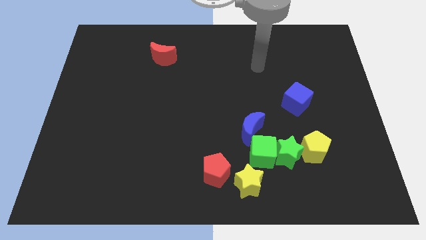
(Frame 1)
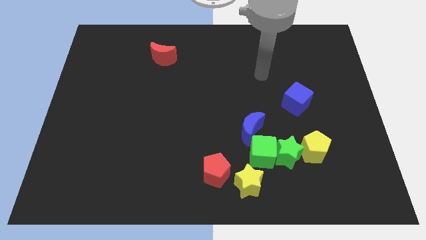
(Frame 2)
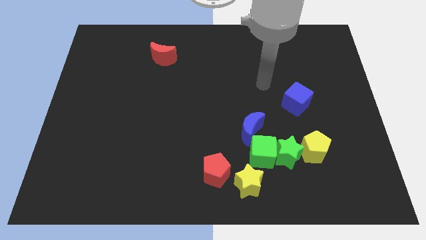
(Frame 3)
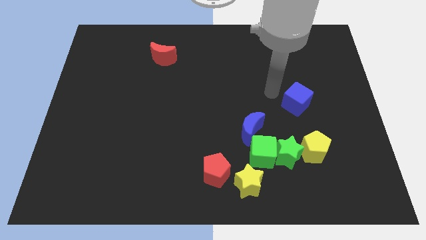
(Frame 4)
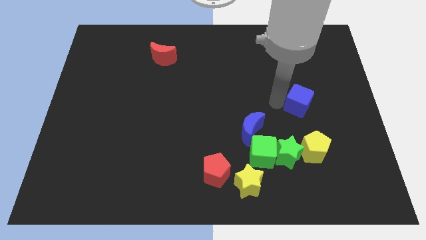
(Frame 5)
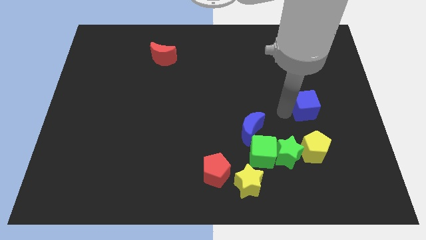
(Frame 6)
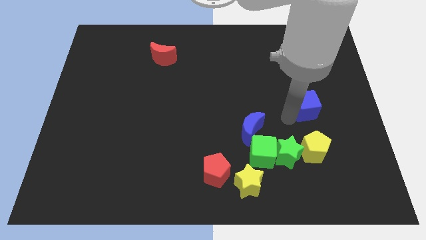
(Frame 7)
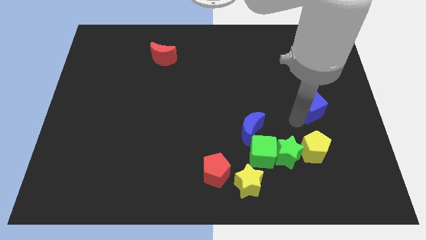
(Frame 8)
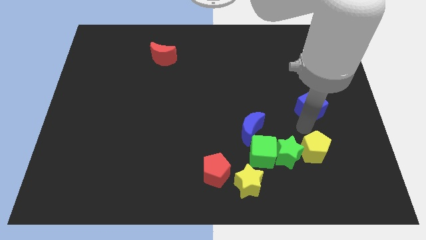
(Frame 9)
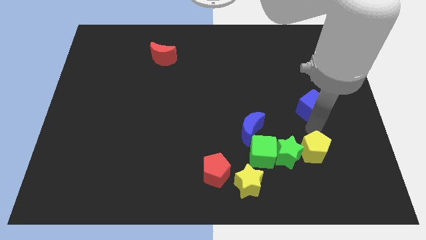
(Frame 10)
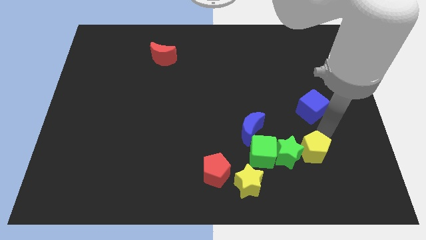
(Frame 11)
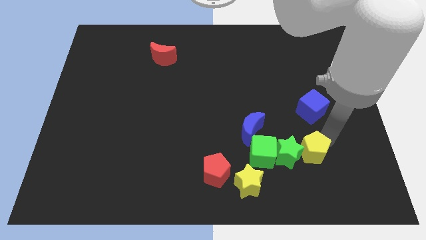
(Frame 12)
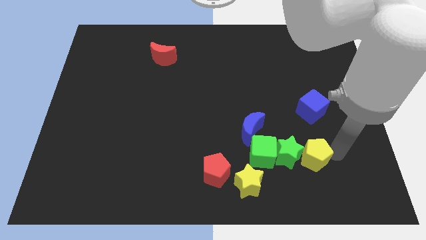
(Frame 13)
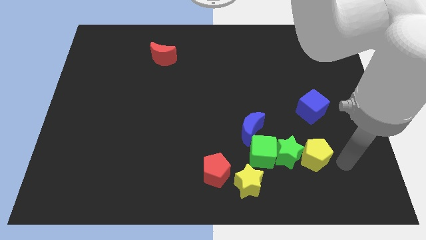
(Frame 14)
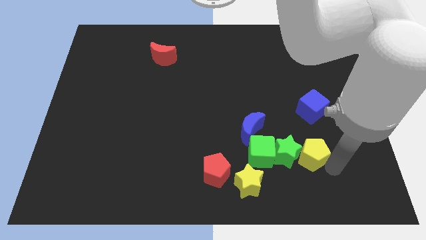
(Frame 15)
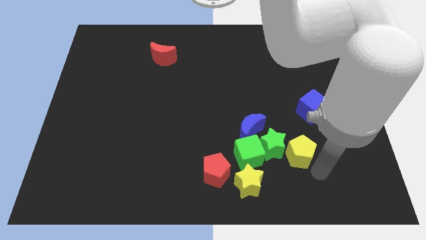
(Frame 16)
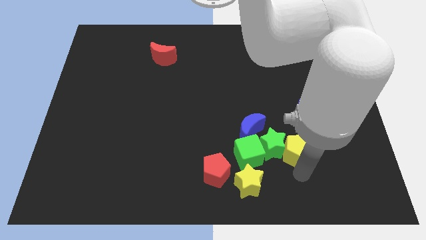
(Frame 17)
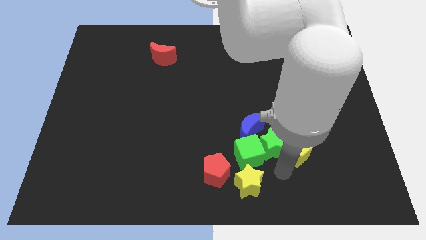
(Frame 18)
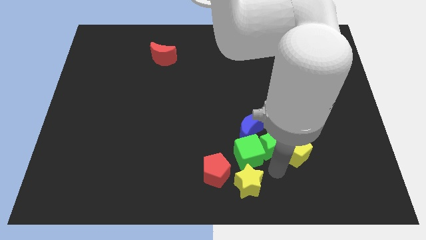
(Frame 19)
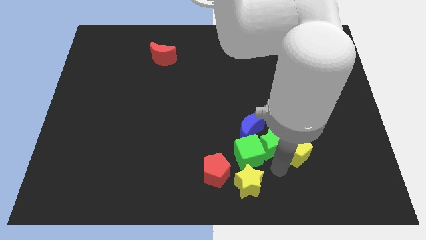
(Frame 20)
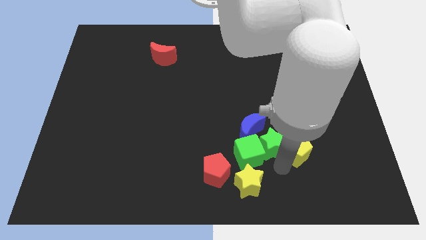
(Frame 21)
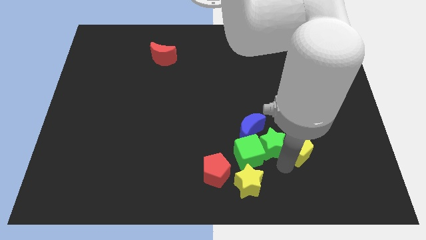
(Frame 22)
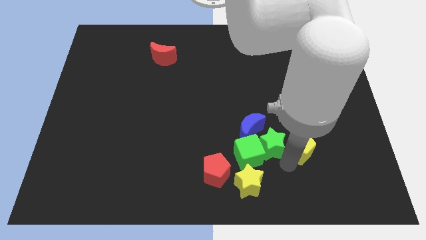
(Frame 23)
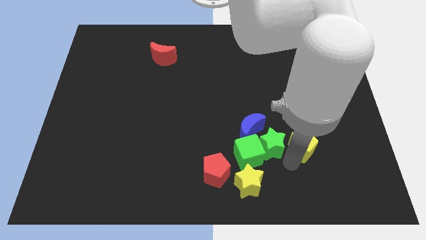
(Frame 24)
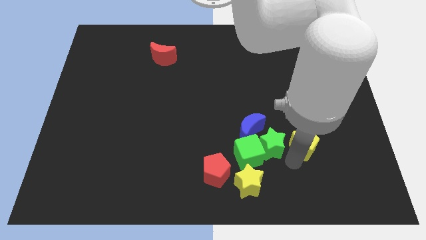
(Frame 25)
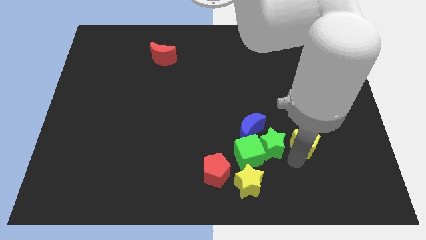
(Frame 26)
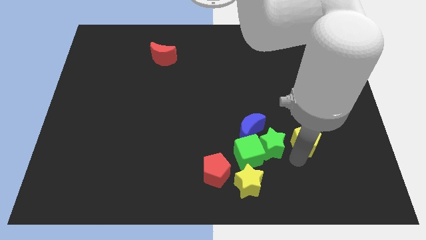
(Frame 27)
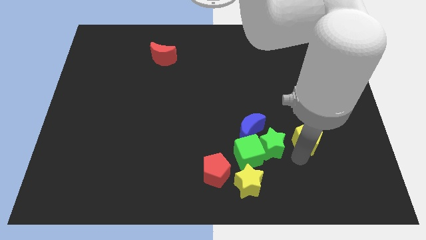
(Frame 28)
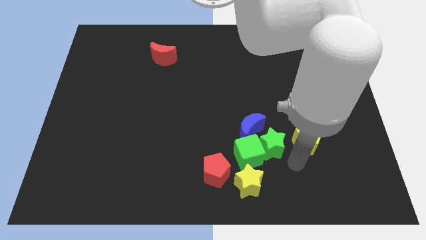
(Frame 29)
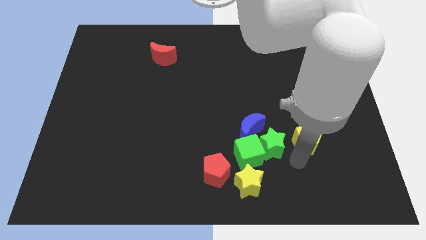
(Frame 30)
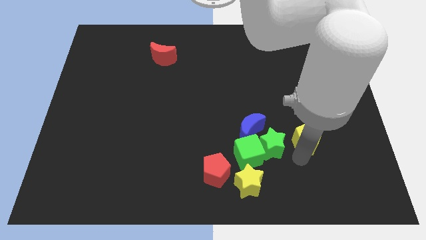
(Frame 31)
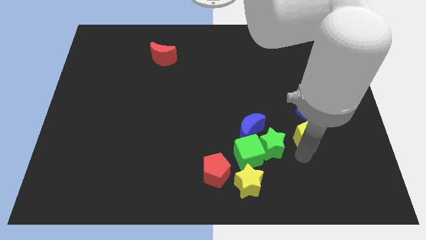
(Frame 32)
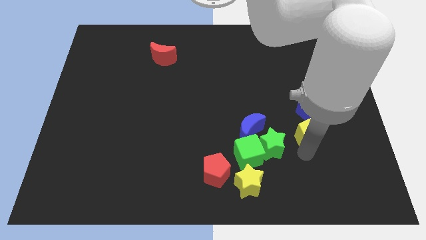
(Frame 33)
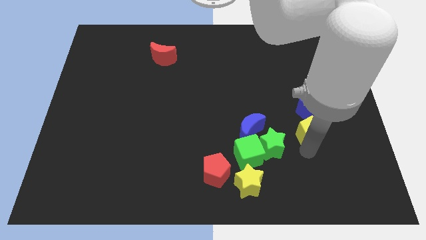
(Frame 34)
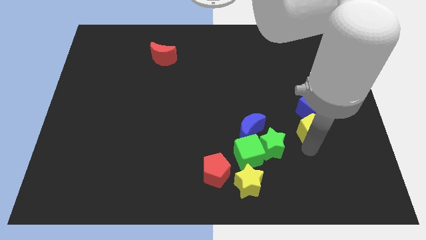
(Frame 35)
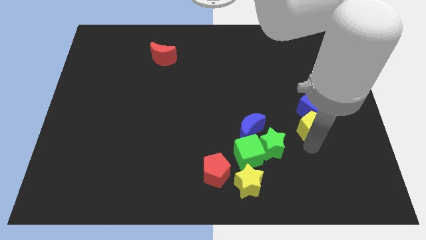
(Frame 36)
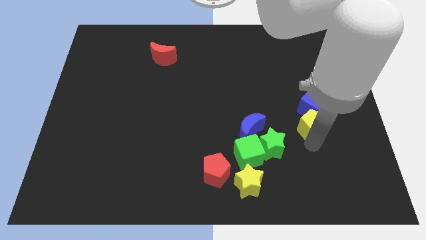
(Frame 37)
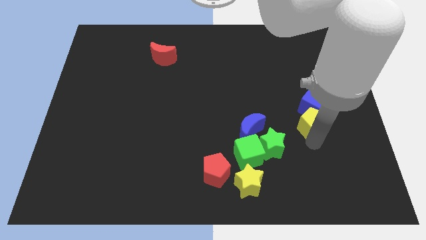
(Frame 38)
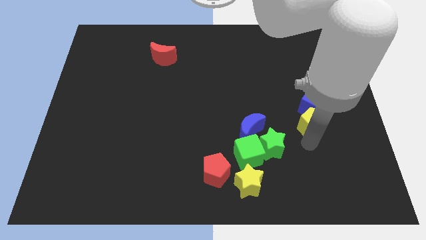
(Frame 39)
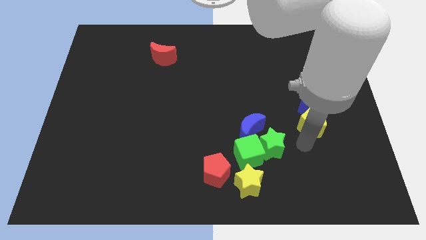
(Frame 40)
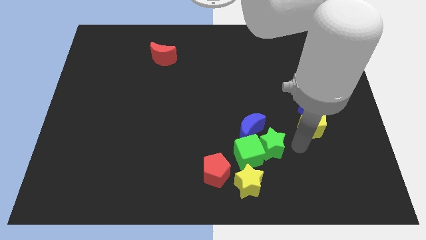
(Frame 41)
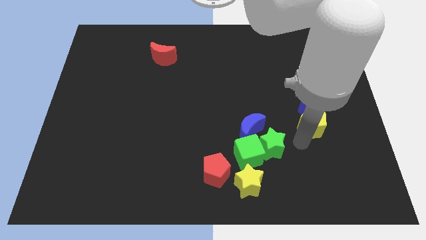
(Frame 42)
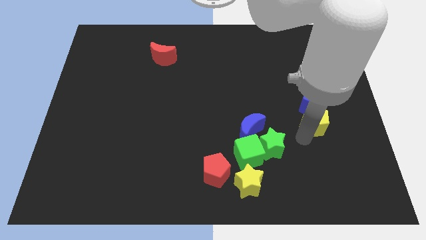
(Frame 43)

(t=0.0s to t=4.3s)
slightly move the yellow pentagon upwards

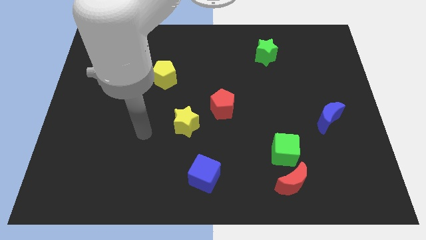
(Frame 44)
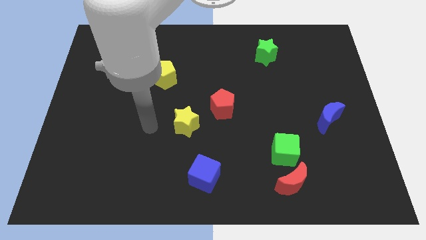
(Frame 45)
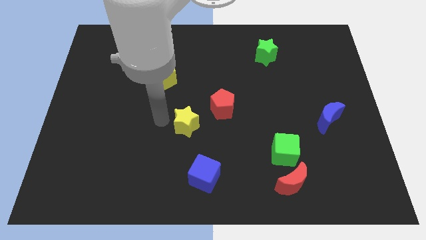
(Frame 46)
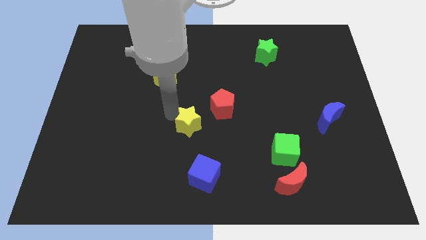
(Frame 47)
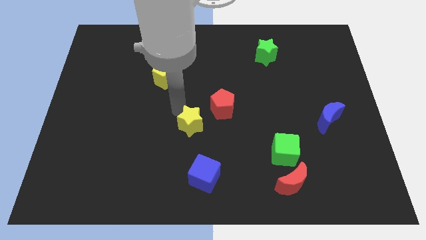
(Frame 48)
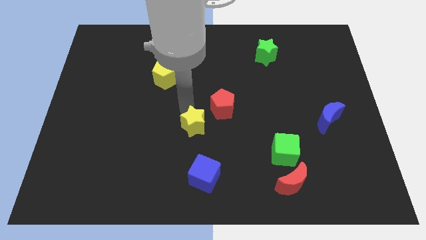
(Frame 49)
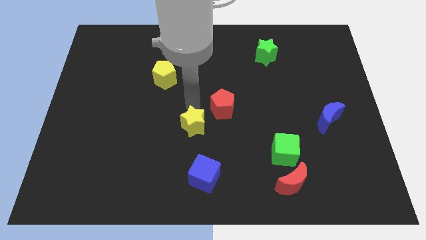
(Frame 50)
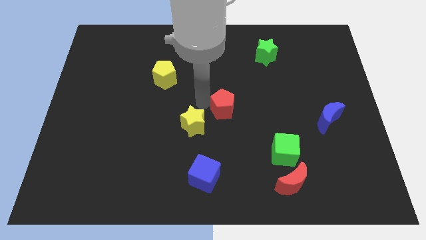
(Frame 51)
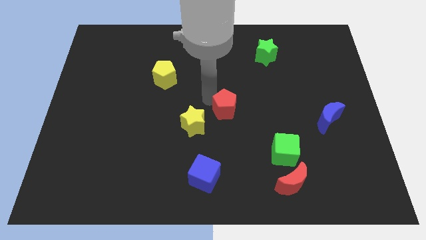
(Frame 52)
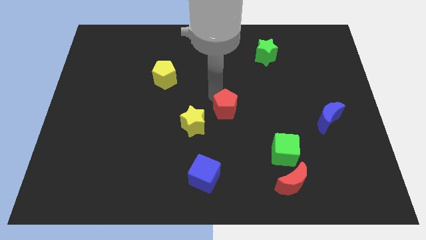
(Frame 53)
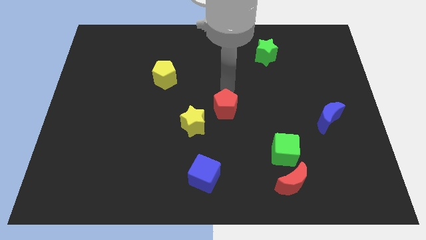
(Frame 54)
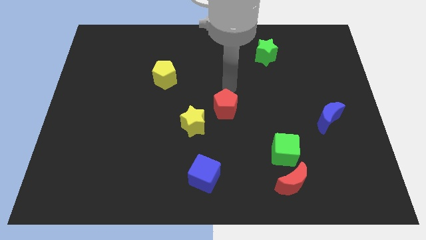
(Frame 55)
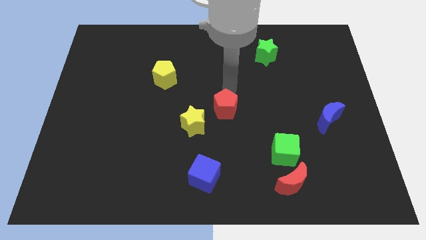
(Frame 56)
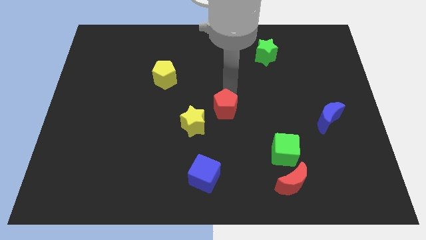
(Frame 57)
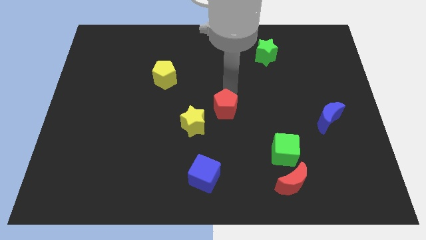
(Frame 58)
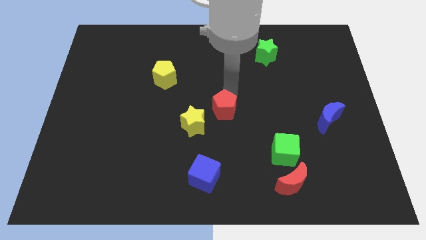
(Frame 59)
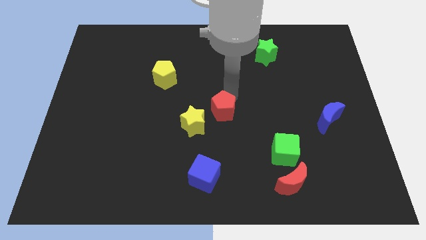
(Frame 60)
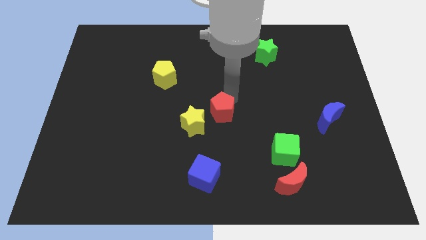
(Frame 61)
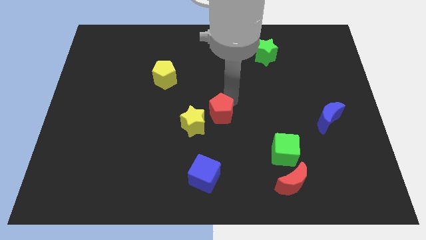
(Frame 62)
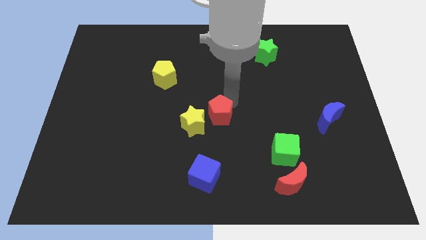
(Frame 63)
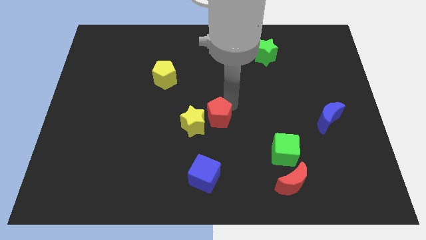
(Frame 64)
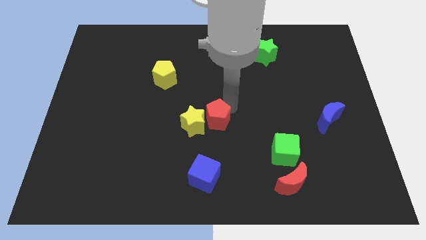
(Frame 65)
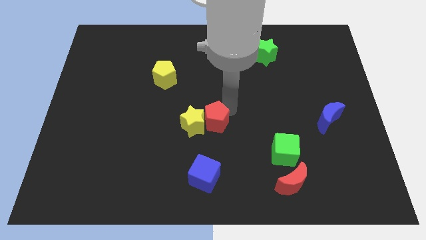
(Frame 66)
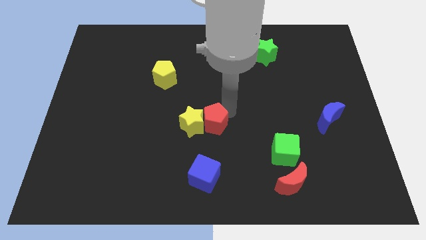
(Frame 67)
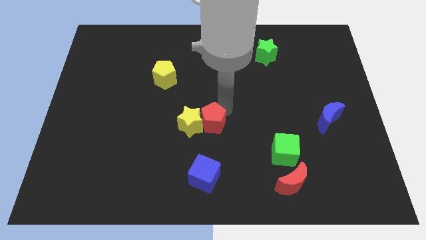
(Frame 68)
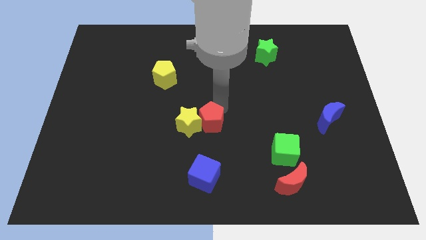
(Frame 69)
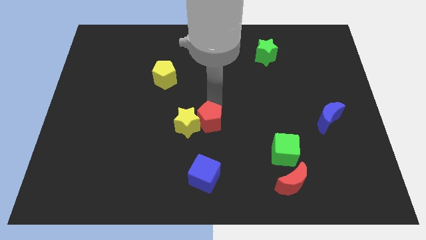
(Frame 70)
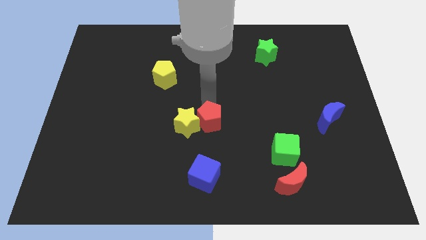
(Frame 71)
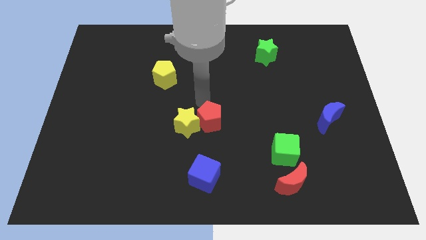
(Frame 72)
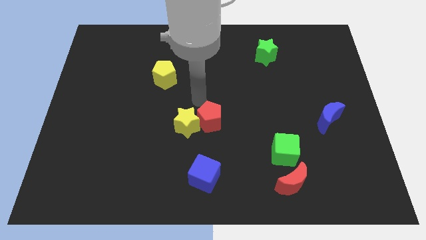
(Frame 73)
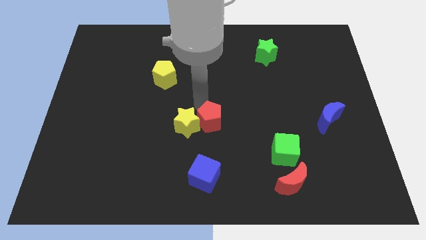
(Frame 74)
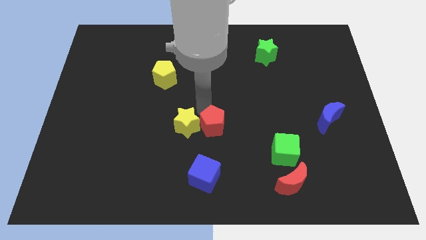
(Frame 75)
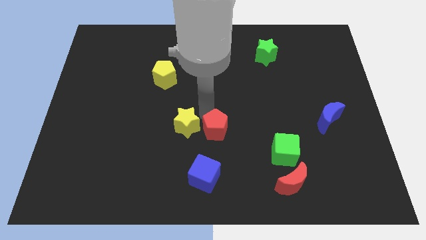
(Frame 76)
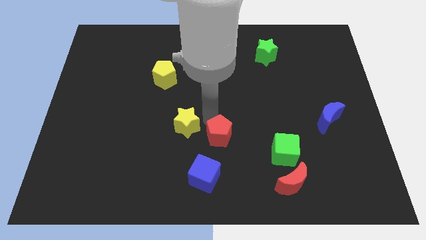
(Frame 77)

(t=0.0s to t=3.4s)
slightly push the red pentagon down

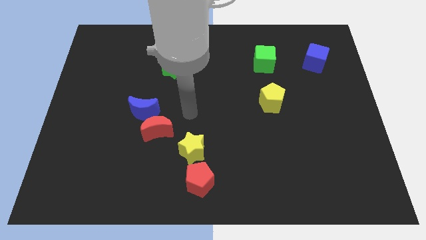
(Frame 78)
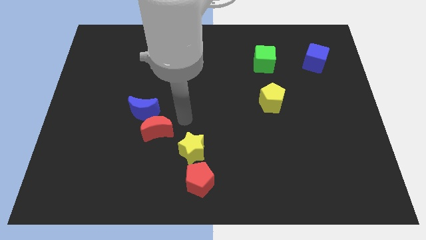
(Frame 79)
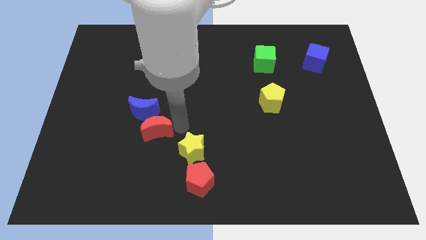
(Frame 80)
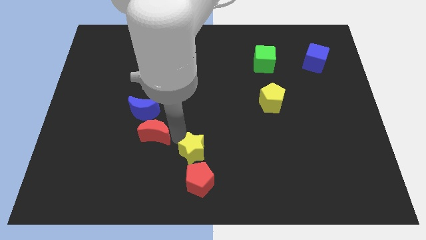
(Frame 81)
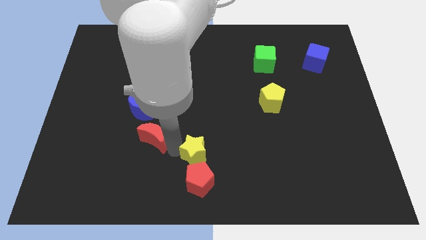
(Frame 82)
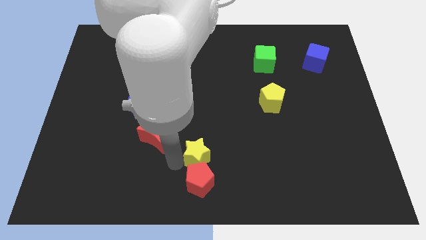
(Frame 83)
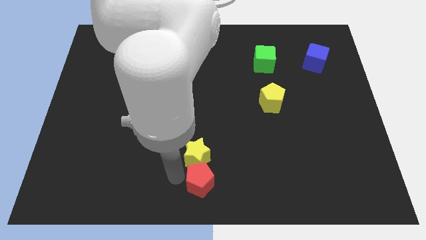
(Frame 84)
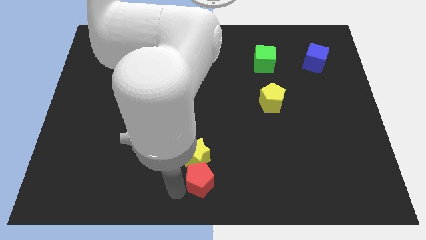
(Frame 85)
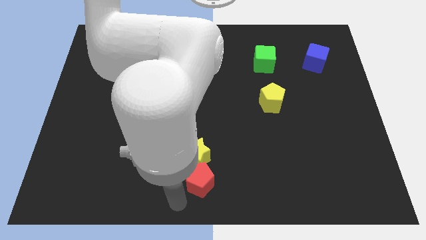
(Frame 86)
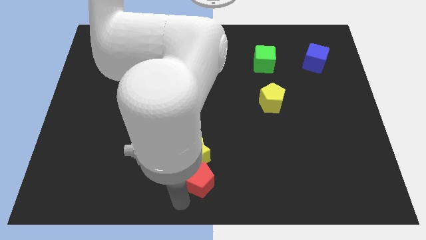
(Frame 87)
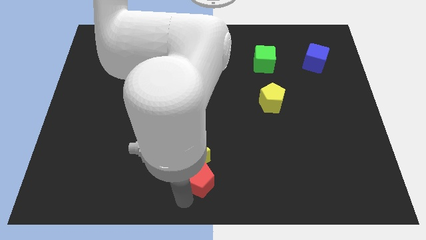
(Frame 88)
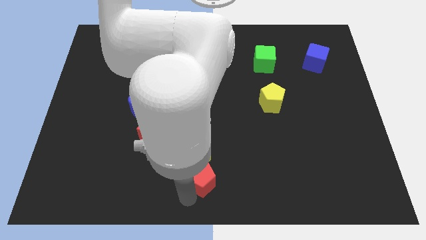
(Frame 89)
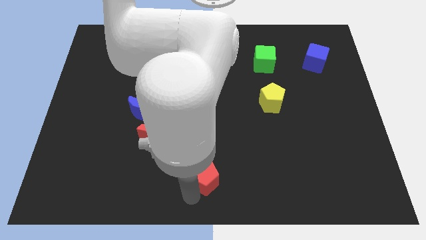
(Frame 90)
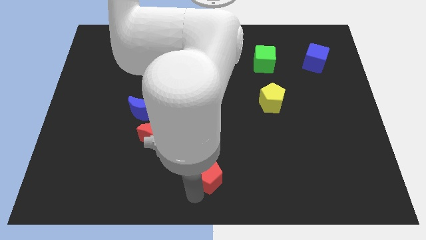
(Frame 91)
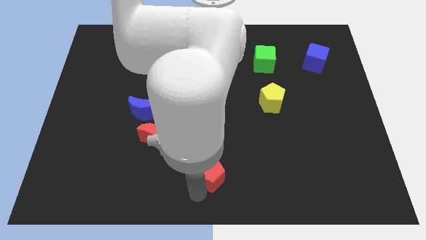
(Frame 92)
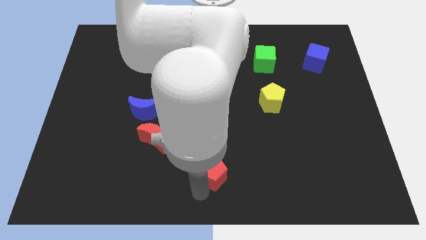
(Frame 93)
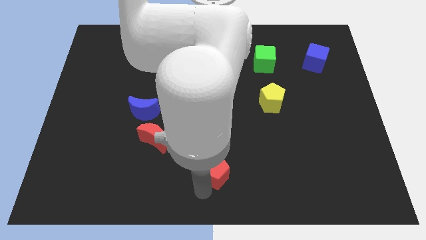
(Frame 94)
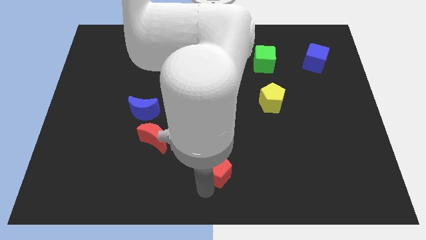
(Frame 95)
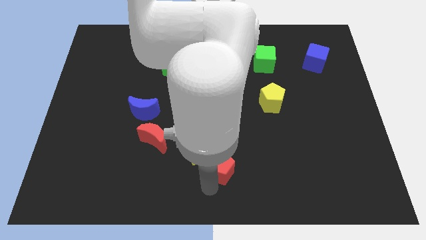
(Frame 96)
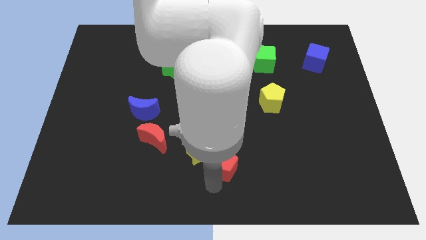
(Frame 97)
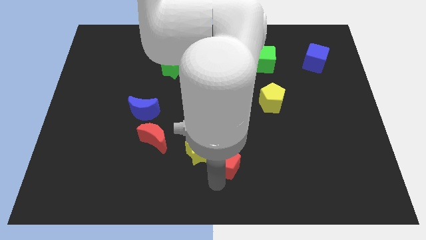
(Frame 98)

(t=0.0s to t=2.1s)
slightly slide the red pentagon up and then to the right
